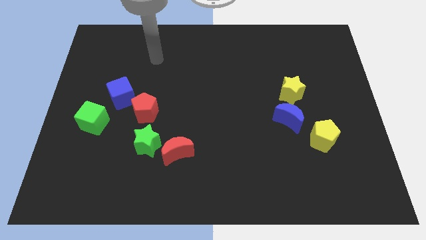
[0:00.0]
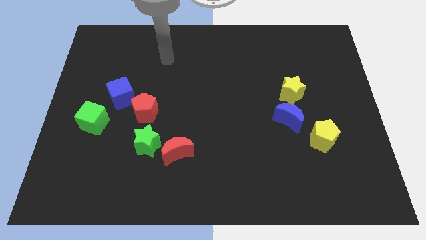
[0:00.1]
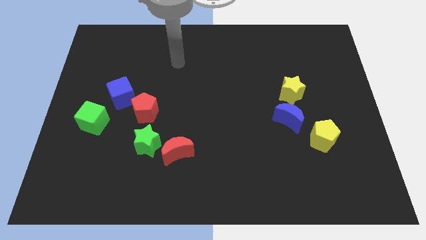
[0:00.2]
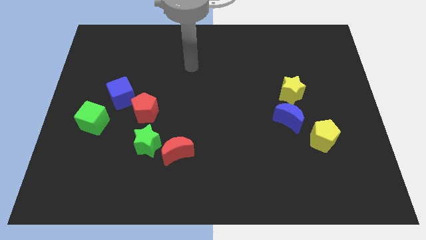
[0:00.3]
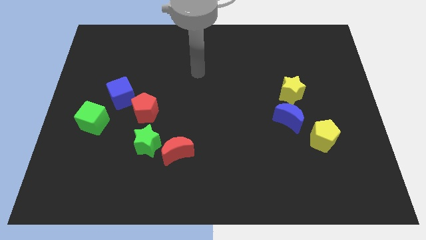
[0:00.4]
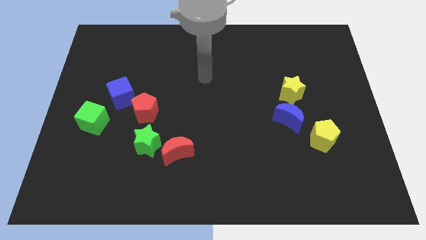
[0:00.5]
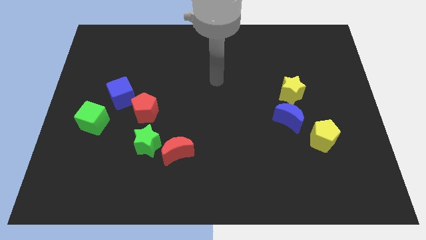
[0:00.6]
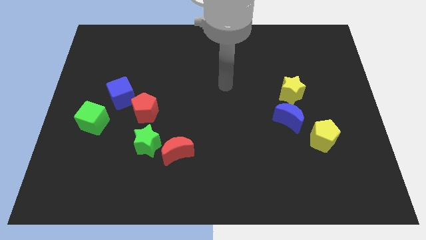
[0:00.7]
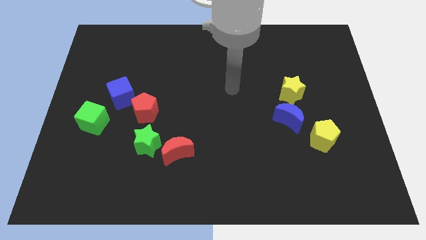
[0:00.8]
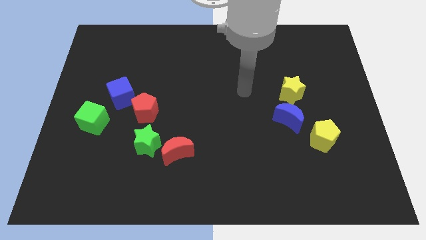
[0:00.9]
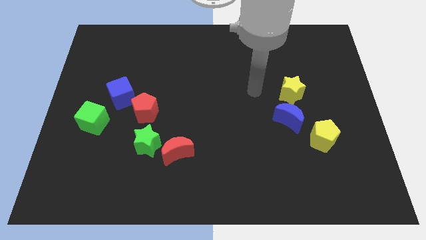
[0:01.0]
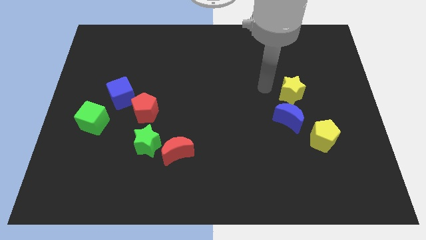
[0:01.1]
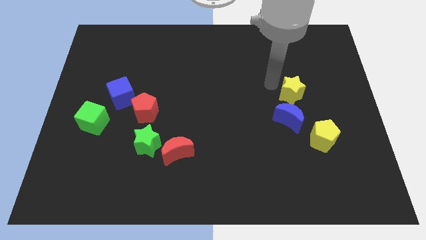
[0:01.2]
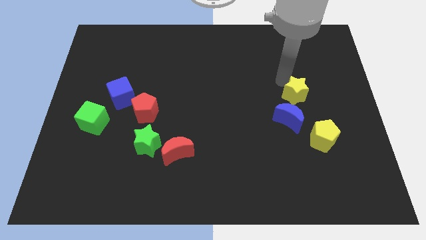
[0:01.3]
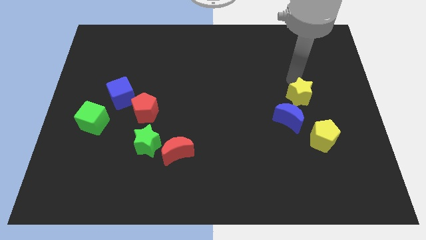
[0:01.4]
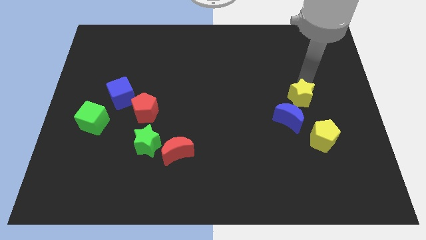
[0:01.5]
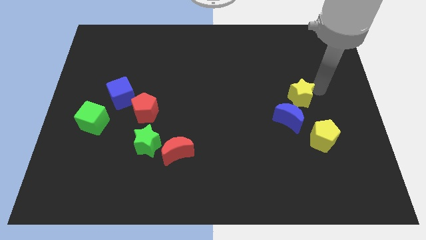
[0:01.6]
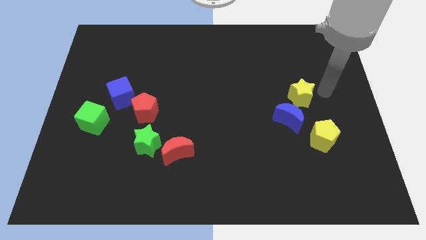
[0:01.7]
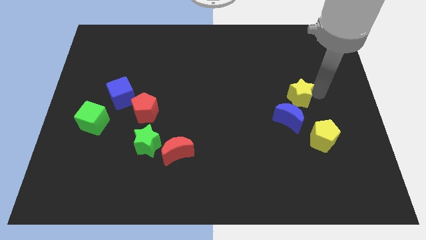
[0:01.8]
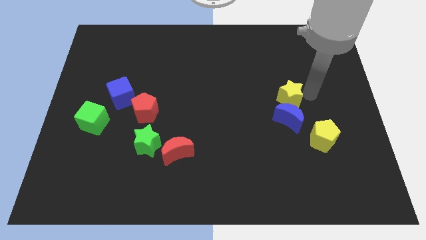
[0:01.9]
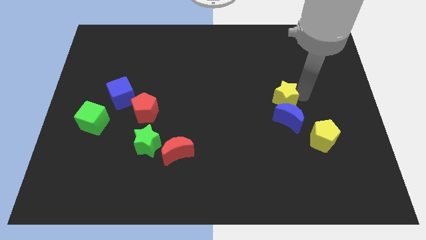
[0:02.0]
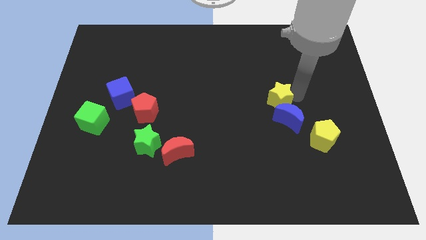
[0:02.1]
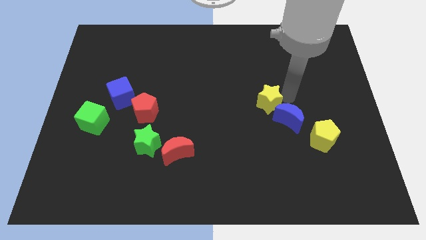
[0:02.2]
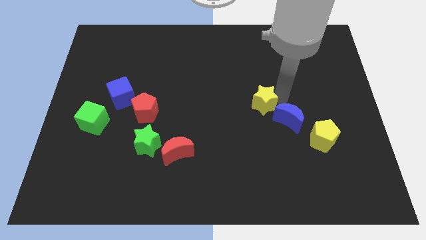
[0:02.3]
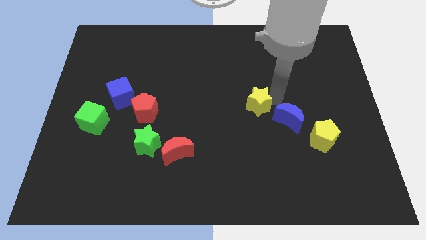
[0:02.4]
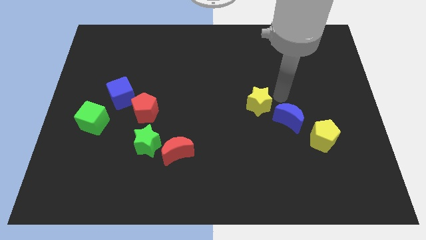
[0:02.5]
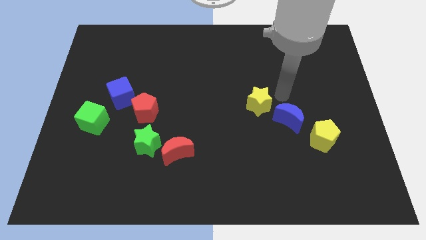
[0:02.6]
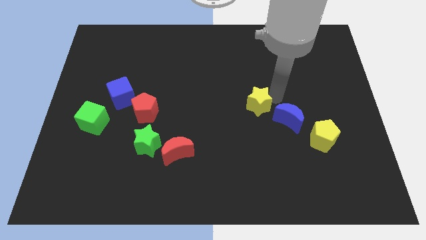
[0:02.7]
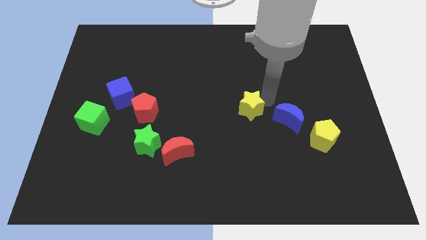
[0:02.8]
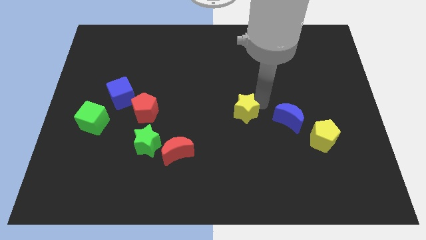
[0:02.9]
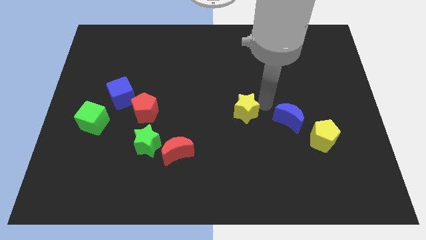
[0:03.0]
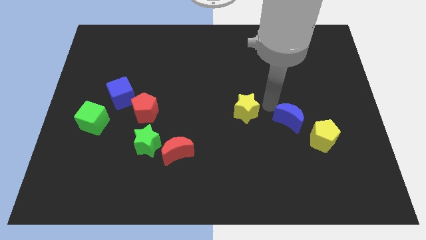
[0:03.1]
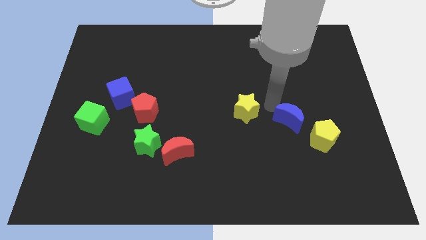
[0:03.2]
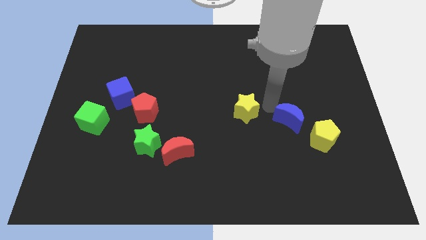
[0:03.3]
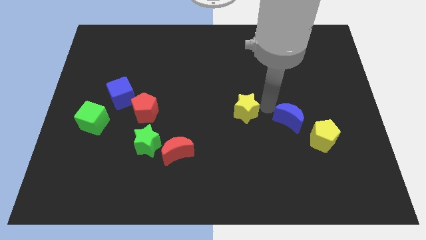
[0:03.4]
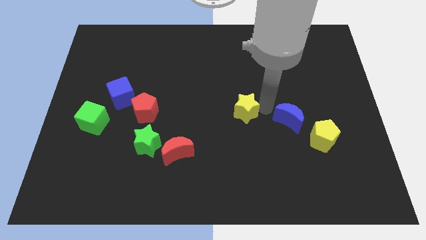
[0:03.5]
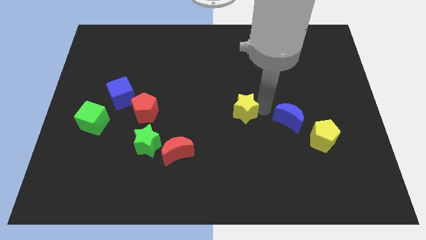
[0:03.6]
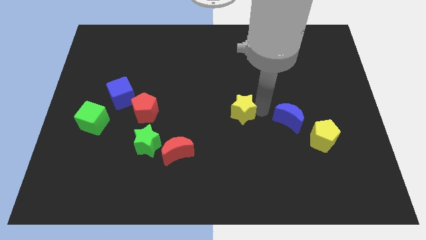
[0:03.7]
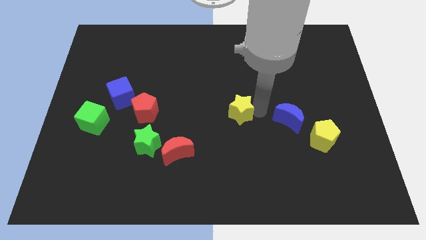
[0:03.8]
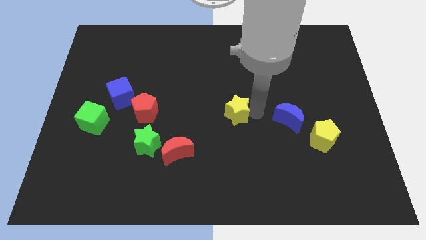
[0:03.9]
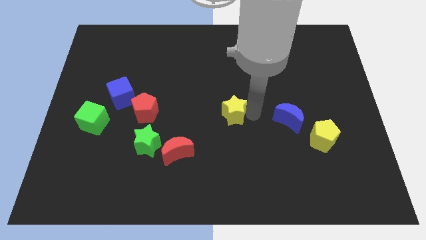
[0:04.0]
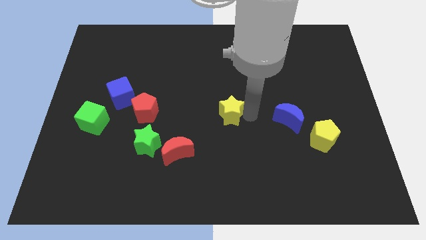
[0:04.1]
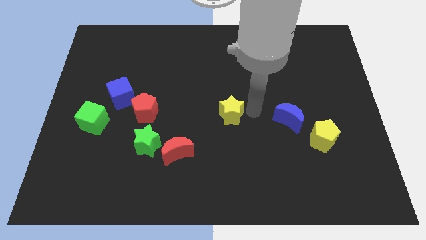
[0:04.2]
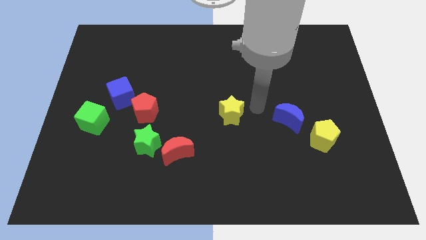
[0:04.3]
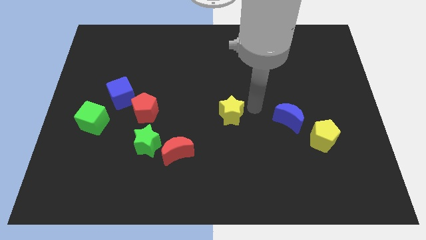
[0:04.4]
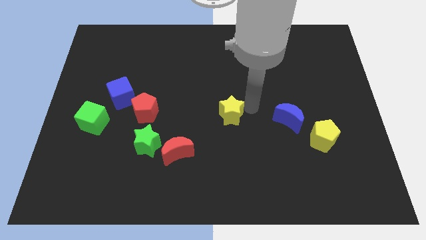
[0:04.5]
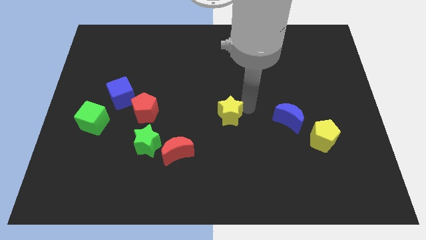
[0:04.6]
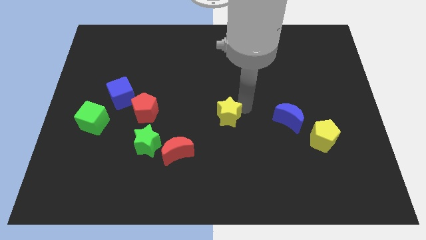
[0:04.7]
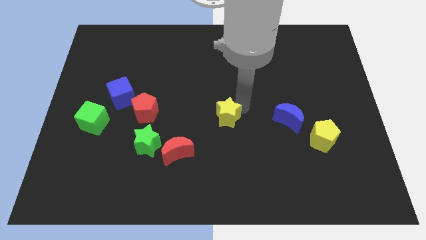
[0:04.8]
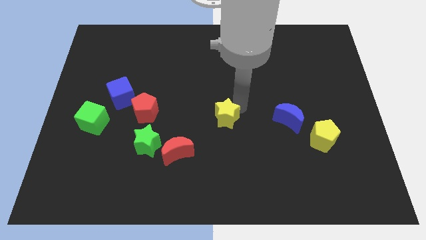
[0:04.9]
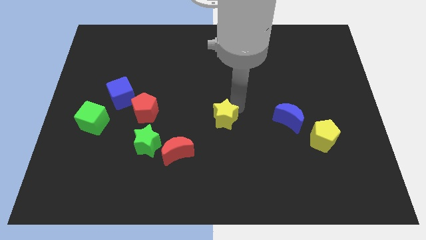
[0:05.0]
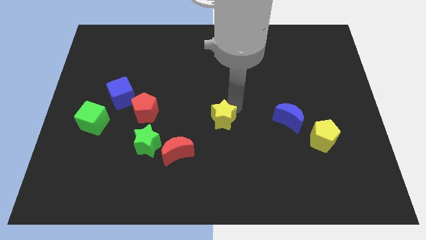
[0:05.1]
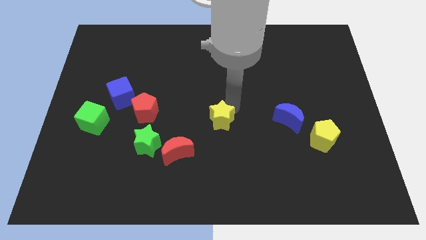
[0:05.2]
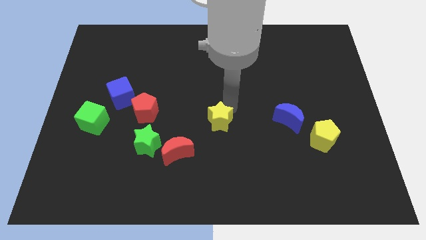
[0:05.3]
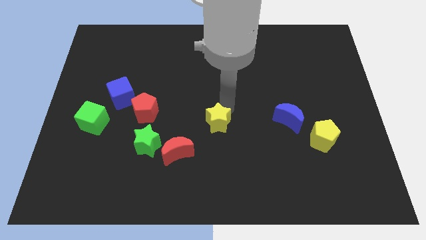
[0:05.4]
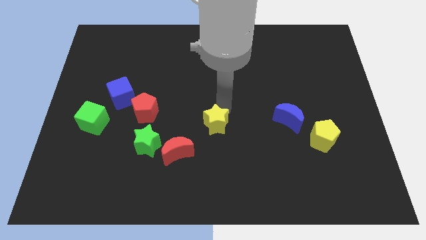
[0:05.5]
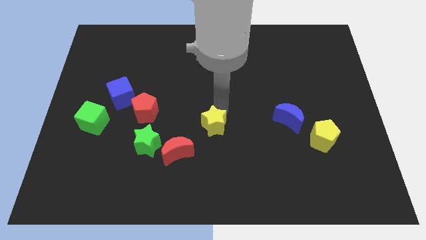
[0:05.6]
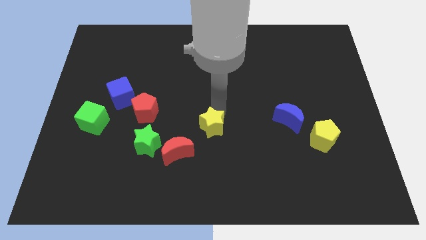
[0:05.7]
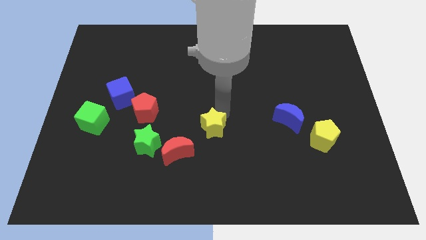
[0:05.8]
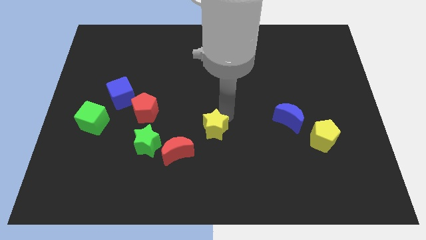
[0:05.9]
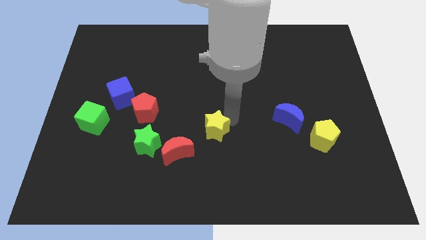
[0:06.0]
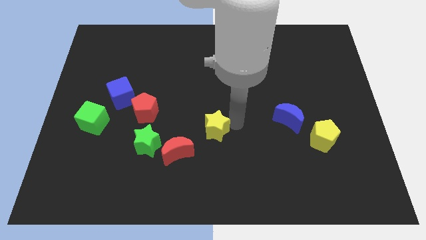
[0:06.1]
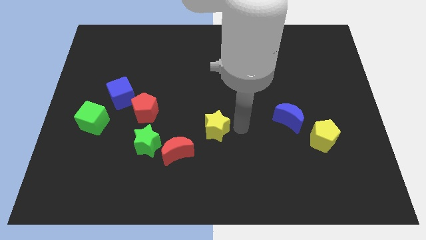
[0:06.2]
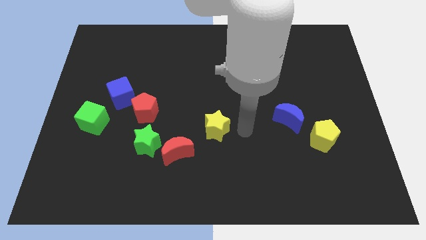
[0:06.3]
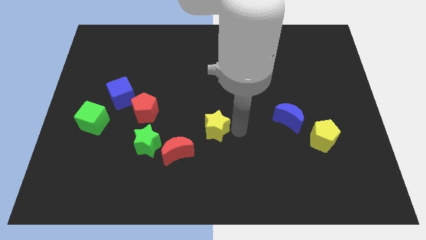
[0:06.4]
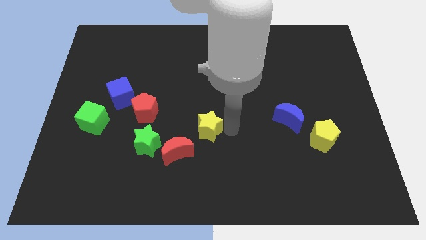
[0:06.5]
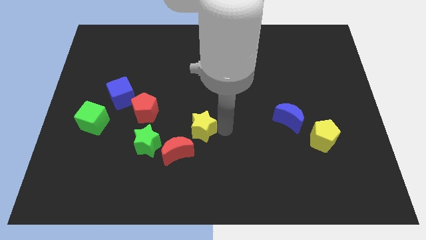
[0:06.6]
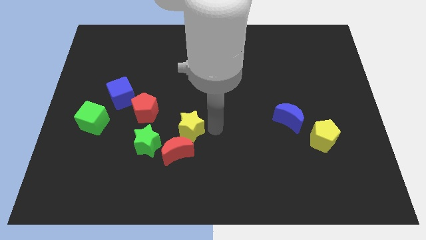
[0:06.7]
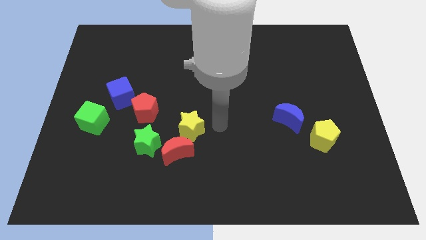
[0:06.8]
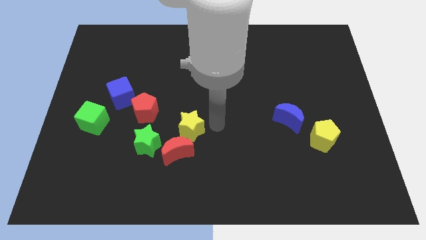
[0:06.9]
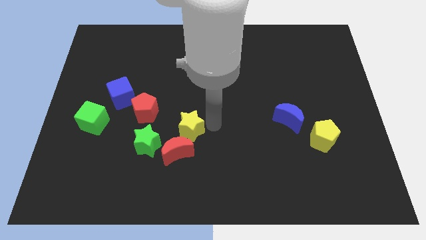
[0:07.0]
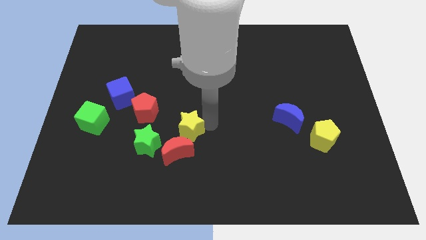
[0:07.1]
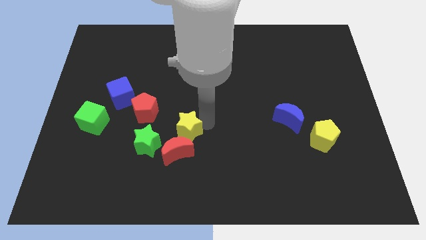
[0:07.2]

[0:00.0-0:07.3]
move the yellow star diagonally down and to the right of the red pentagon
